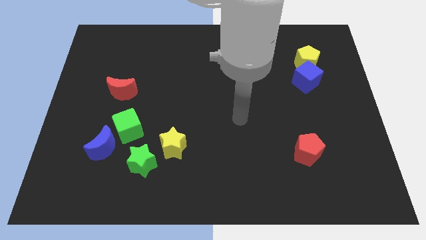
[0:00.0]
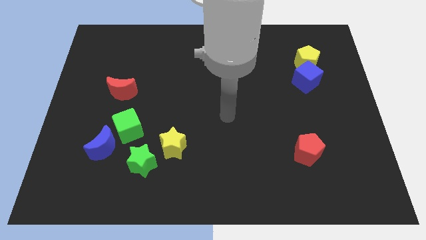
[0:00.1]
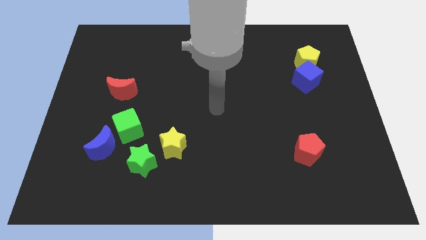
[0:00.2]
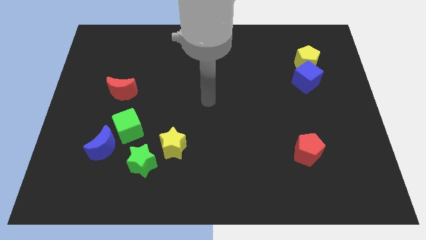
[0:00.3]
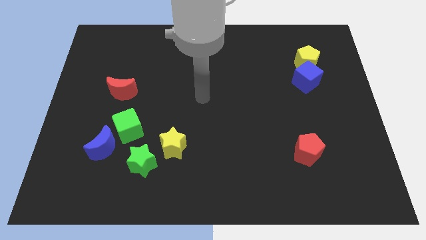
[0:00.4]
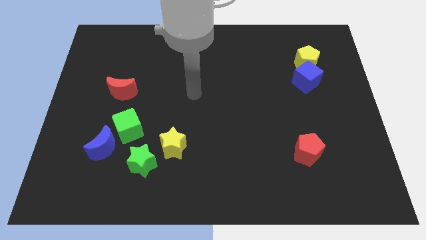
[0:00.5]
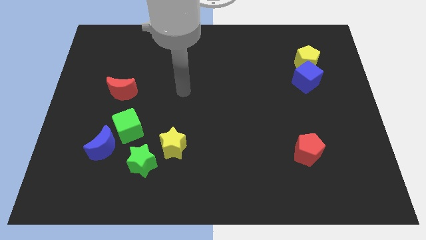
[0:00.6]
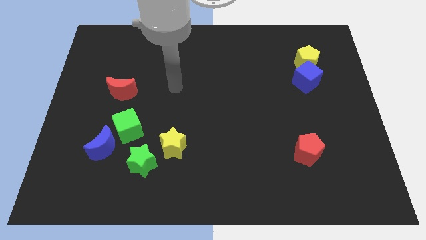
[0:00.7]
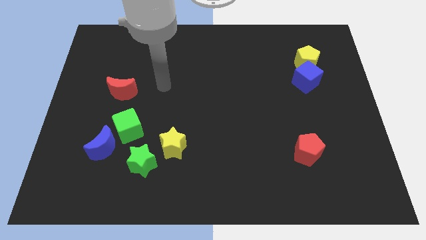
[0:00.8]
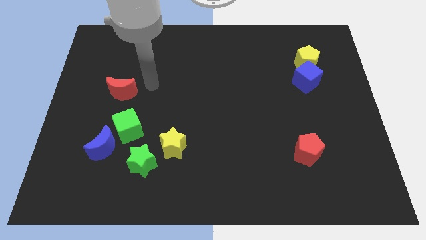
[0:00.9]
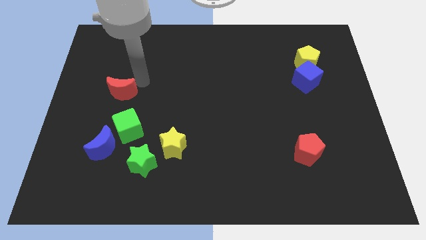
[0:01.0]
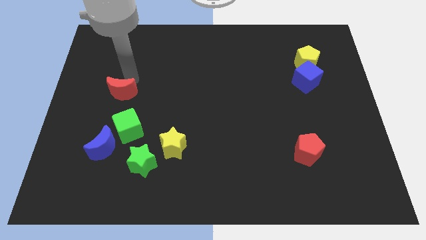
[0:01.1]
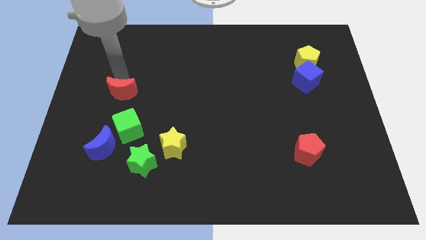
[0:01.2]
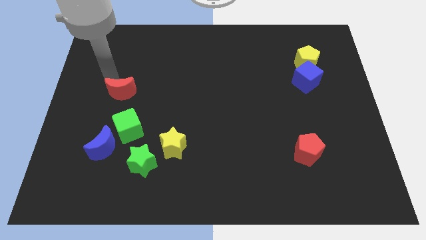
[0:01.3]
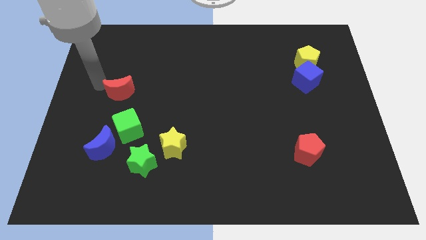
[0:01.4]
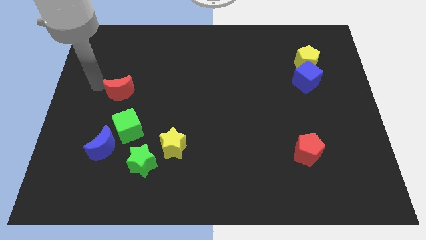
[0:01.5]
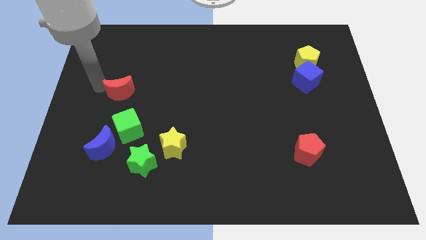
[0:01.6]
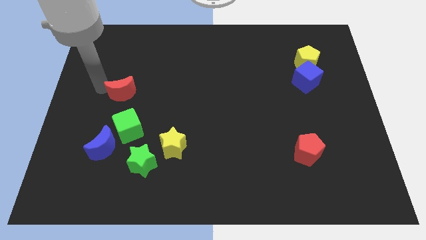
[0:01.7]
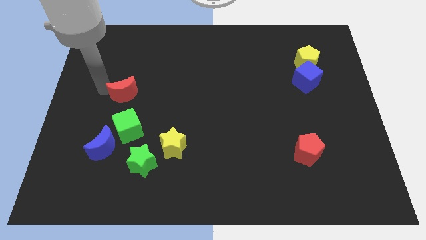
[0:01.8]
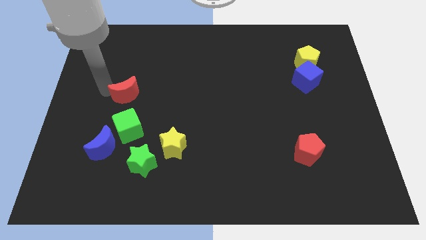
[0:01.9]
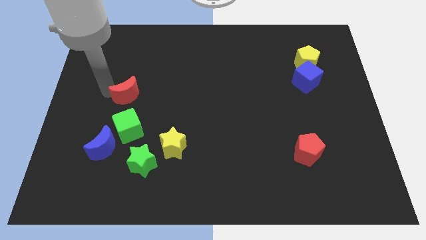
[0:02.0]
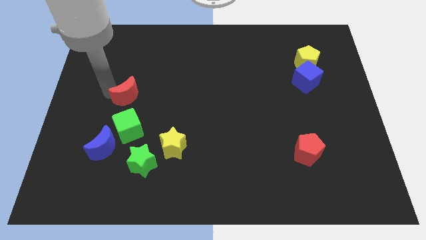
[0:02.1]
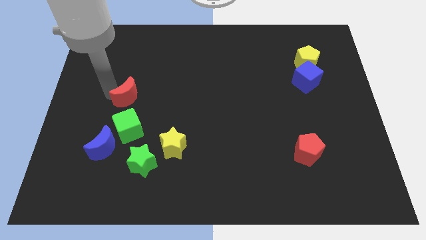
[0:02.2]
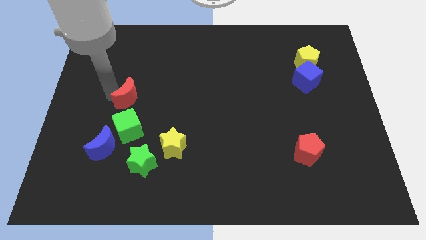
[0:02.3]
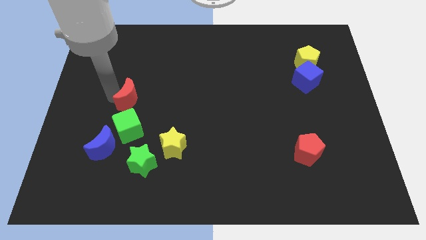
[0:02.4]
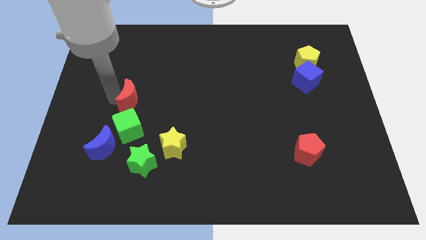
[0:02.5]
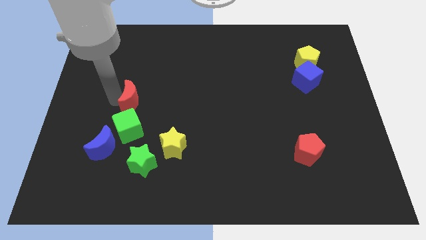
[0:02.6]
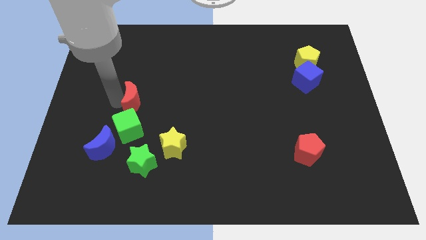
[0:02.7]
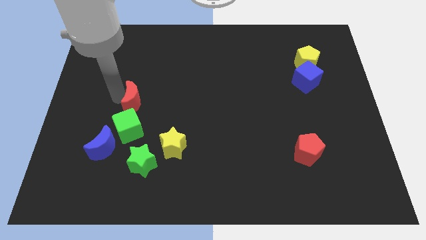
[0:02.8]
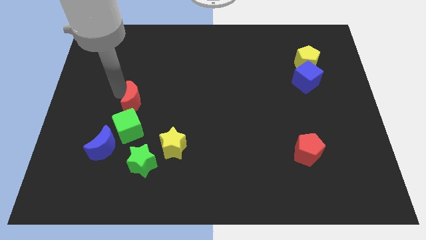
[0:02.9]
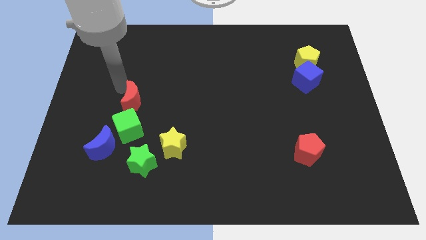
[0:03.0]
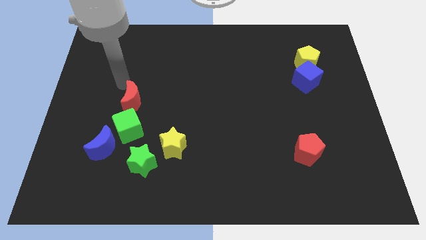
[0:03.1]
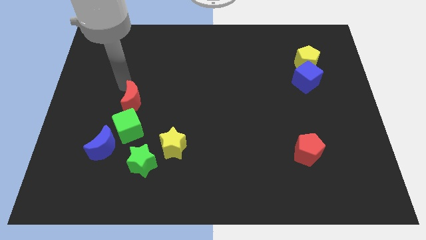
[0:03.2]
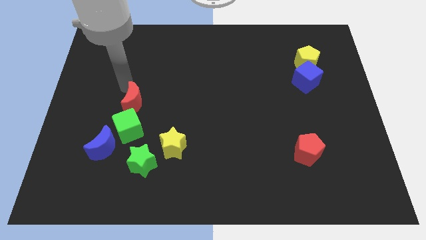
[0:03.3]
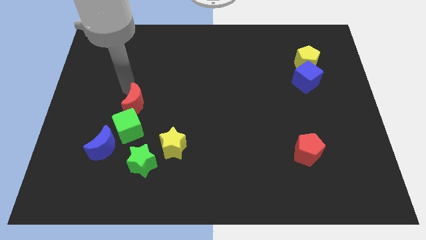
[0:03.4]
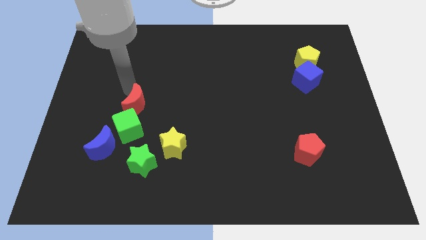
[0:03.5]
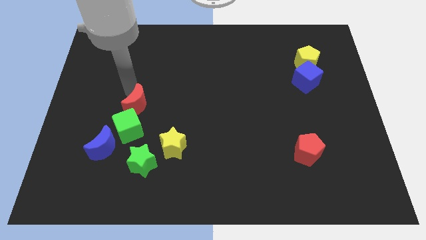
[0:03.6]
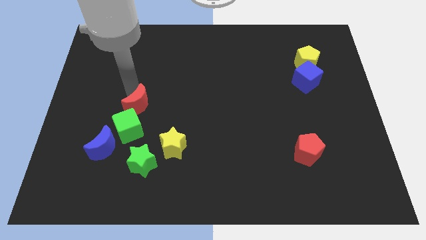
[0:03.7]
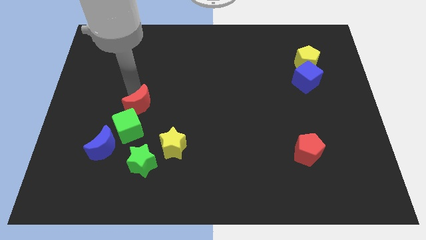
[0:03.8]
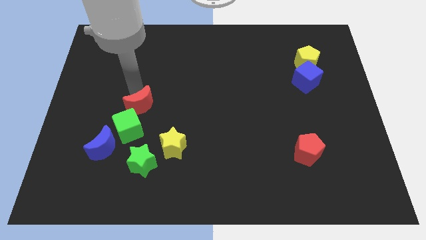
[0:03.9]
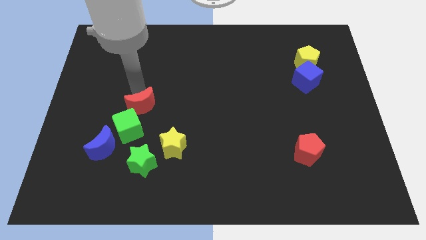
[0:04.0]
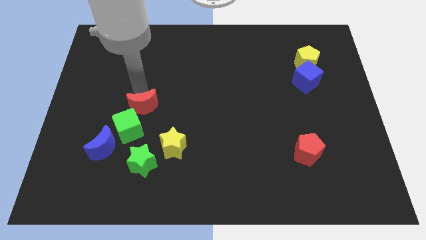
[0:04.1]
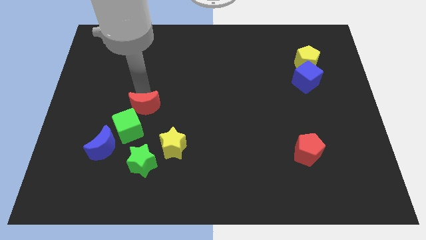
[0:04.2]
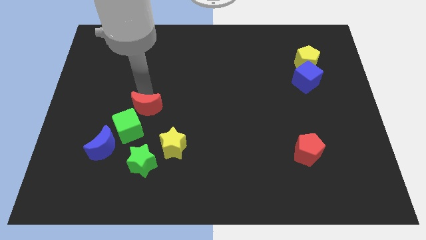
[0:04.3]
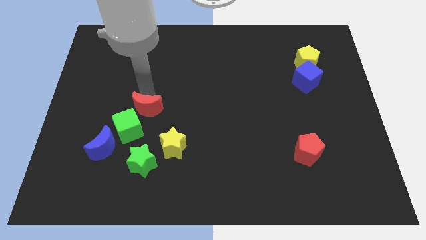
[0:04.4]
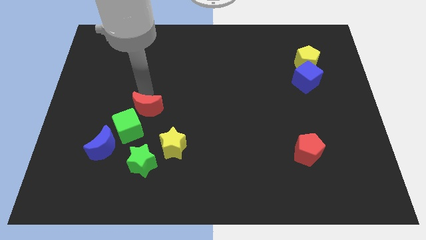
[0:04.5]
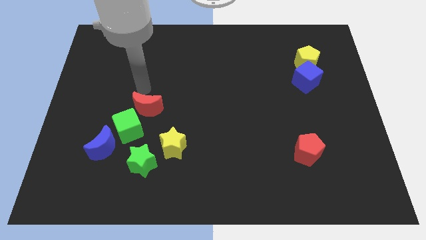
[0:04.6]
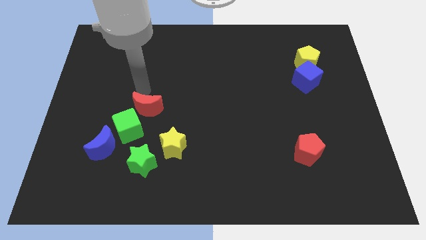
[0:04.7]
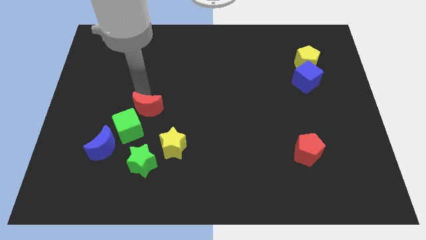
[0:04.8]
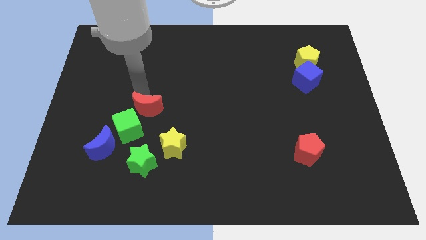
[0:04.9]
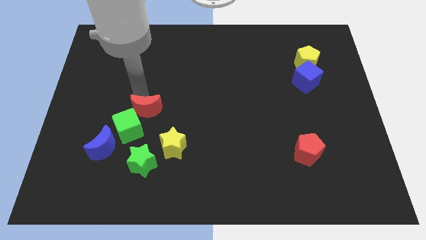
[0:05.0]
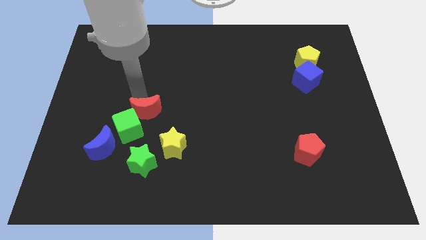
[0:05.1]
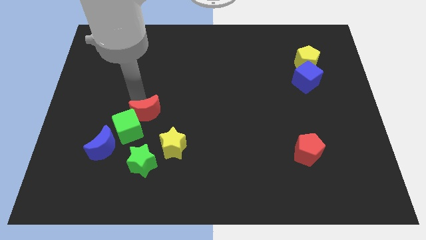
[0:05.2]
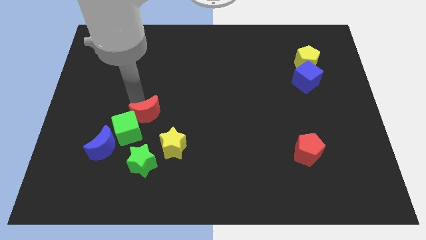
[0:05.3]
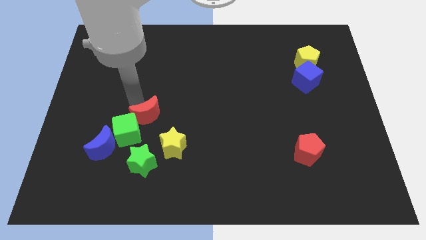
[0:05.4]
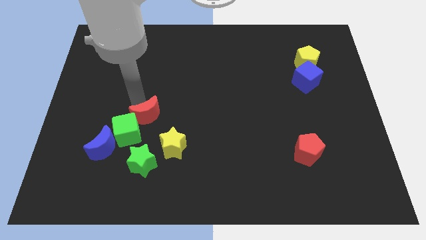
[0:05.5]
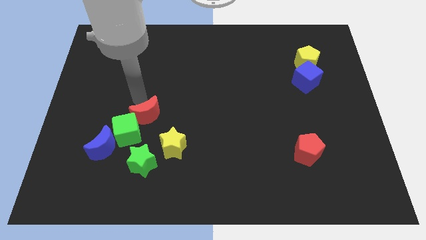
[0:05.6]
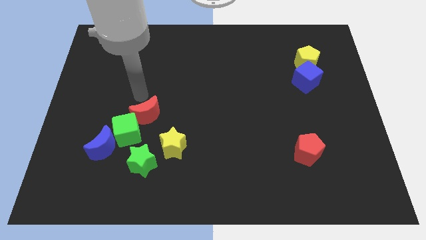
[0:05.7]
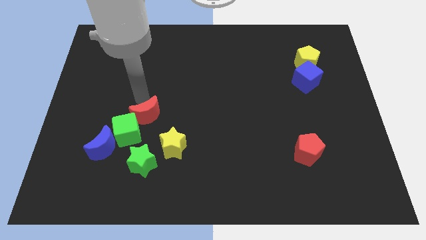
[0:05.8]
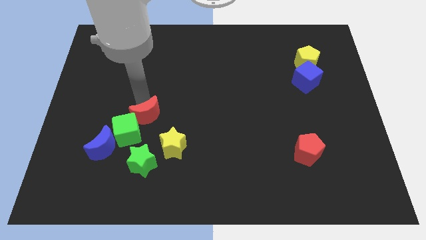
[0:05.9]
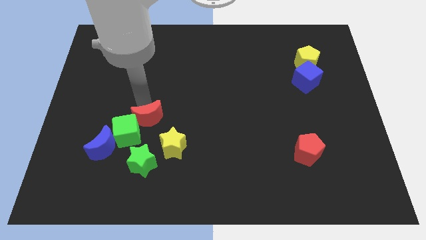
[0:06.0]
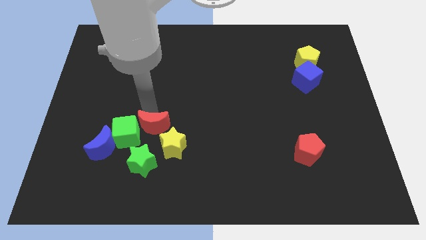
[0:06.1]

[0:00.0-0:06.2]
move the red moon downwards slightly

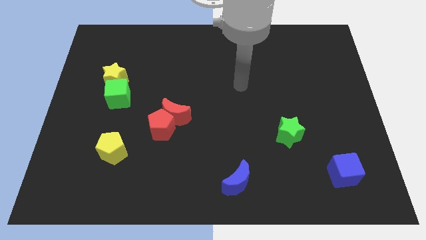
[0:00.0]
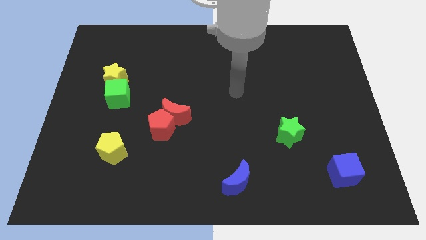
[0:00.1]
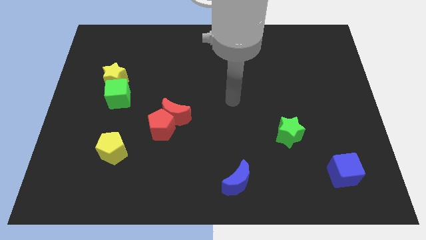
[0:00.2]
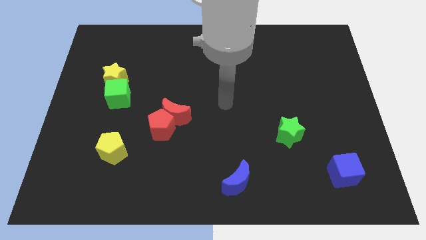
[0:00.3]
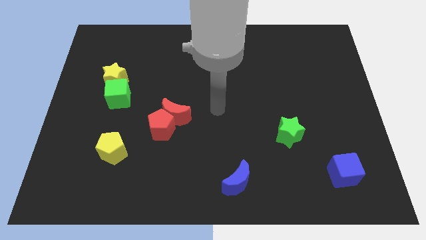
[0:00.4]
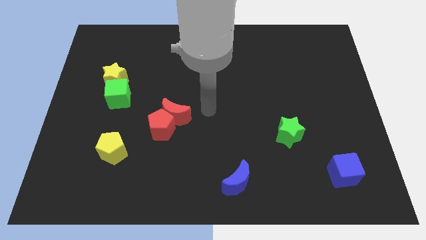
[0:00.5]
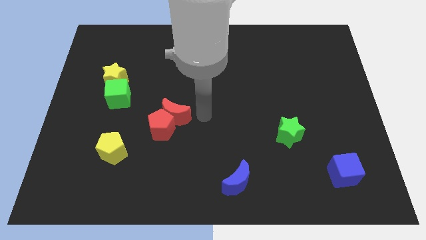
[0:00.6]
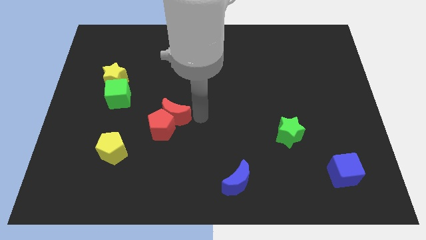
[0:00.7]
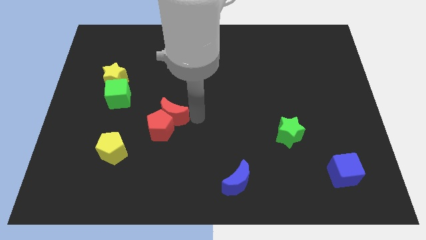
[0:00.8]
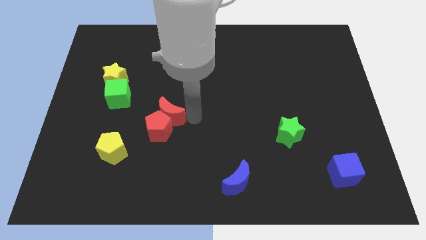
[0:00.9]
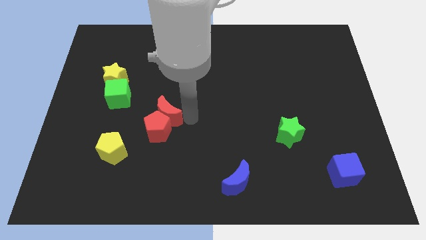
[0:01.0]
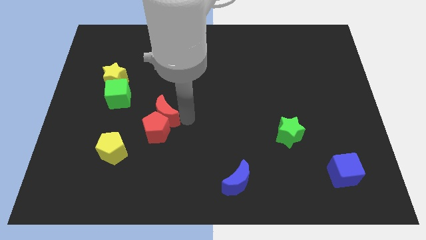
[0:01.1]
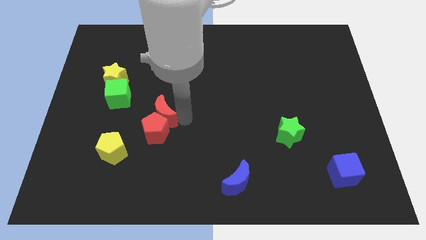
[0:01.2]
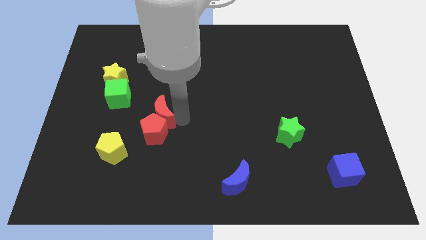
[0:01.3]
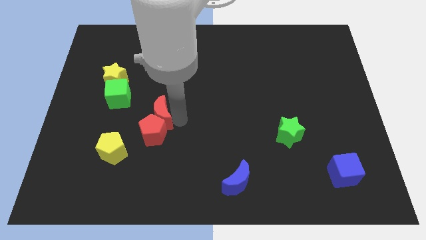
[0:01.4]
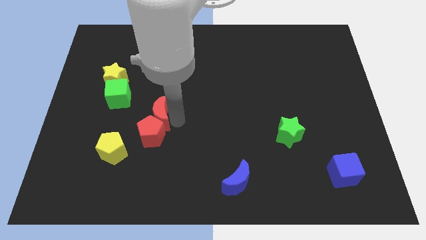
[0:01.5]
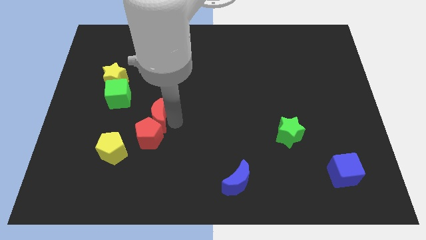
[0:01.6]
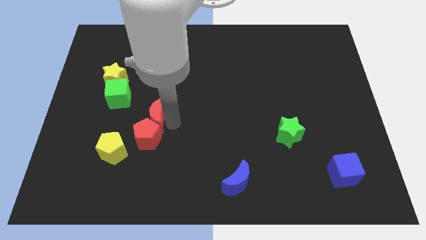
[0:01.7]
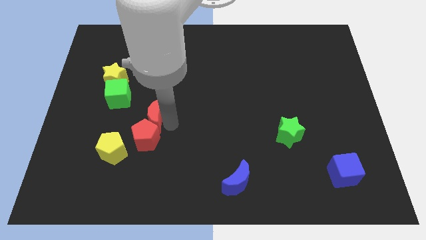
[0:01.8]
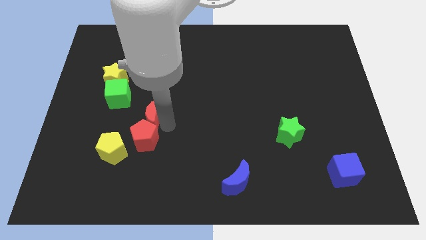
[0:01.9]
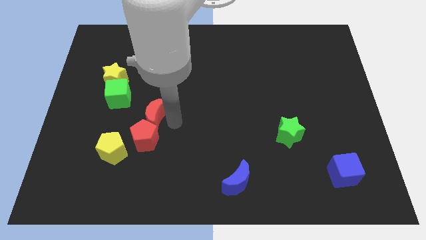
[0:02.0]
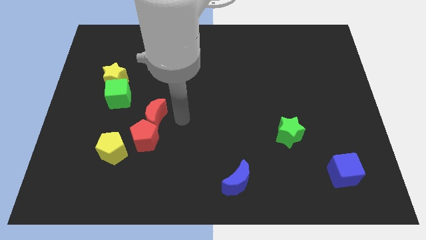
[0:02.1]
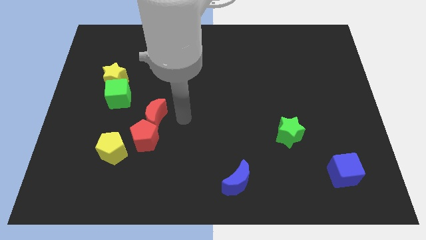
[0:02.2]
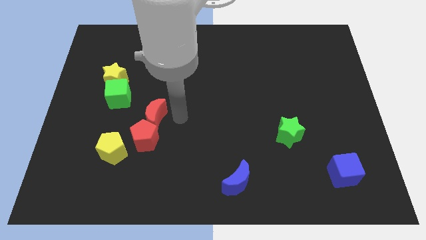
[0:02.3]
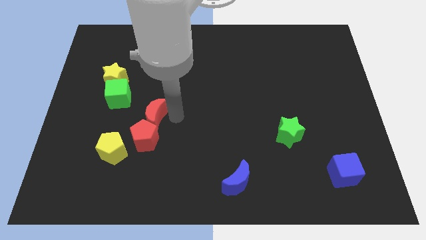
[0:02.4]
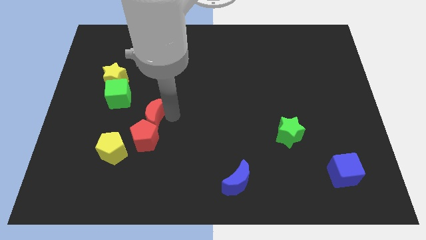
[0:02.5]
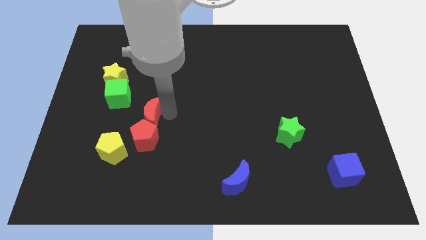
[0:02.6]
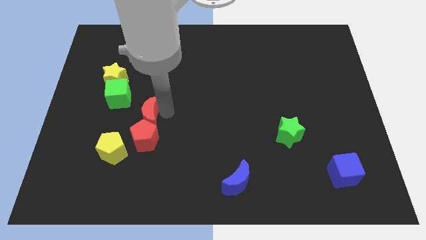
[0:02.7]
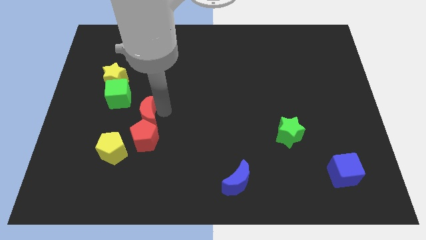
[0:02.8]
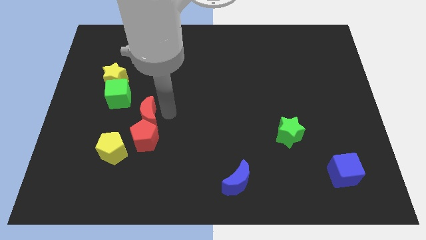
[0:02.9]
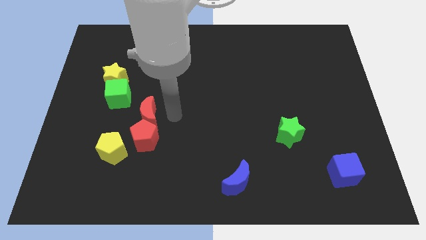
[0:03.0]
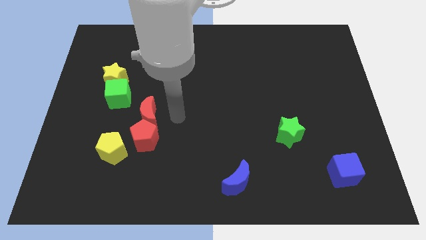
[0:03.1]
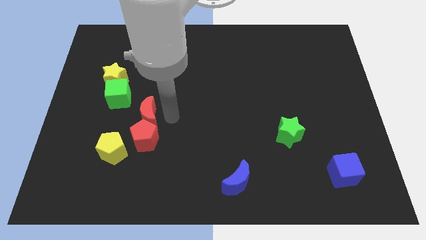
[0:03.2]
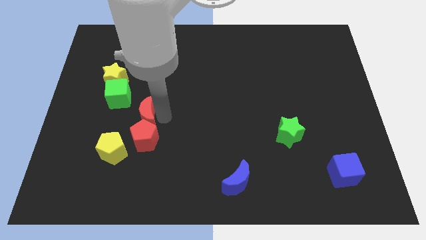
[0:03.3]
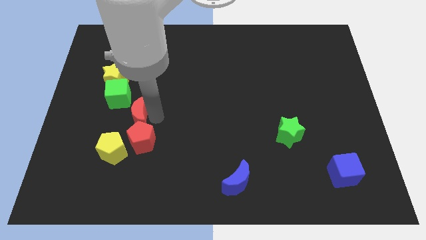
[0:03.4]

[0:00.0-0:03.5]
push the red moon a bit left
